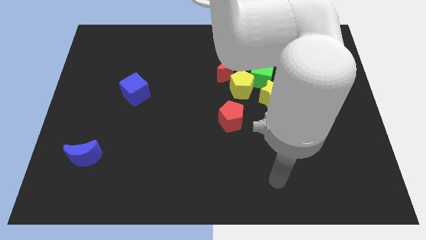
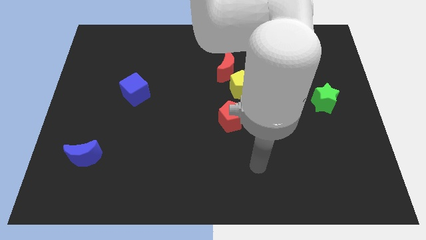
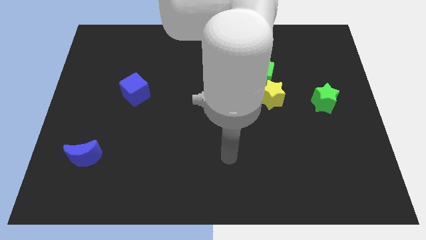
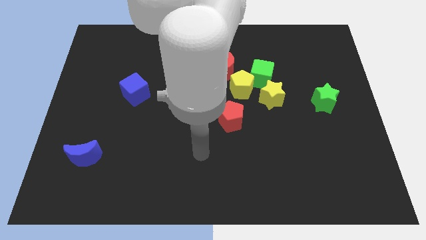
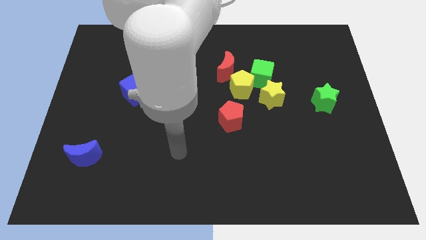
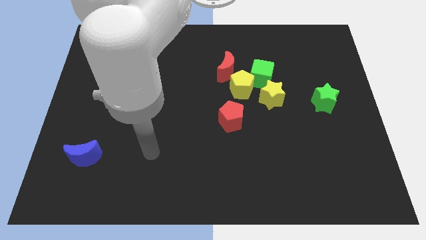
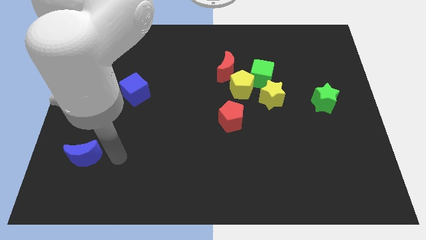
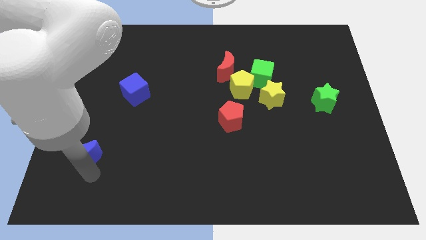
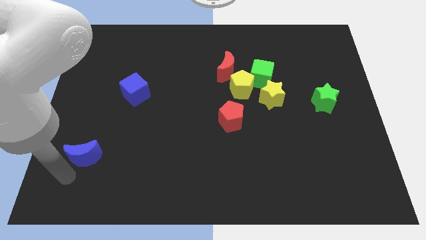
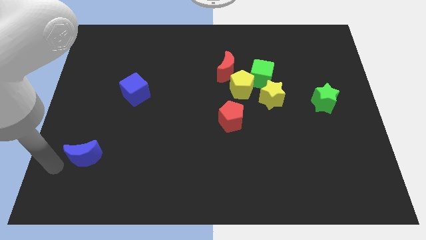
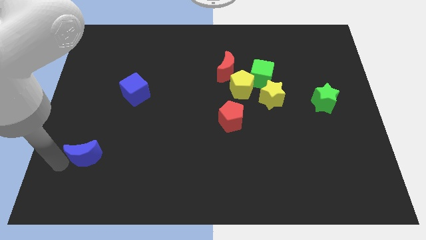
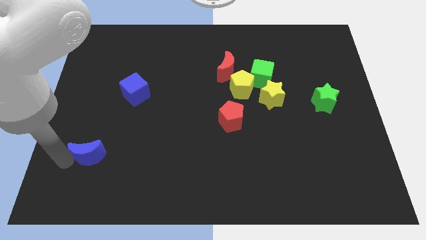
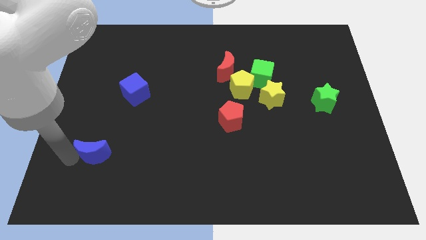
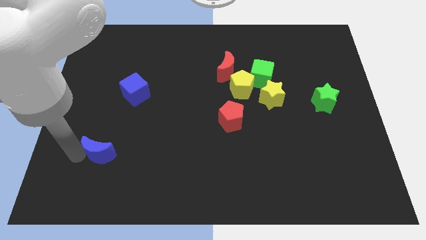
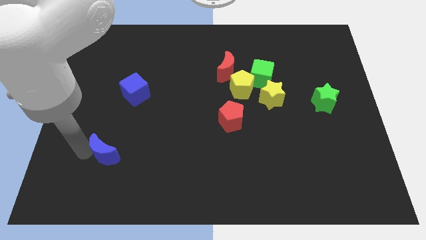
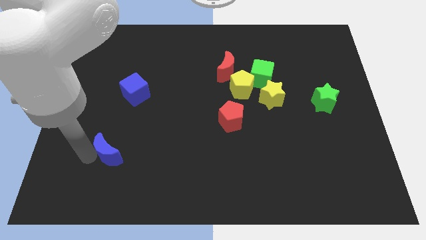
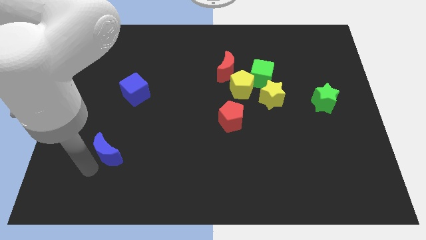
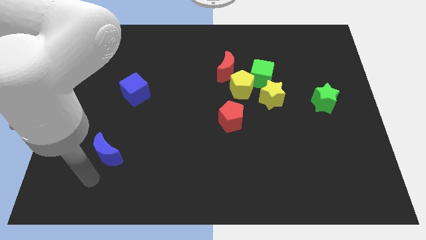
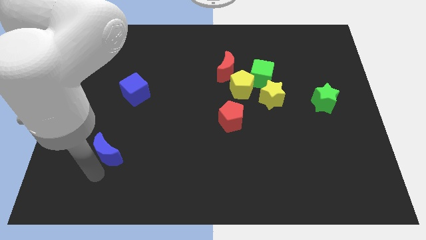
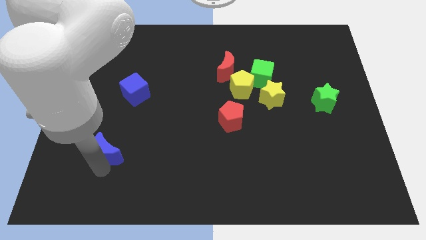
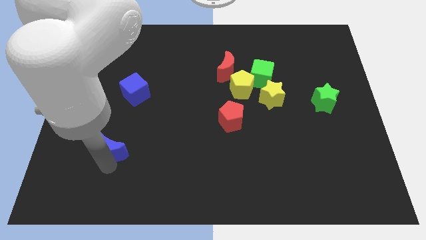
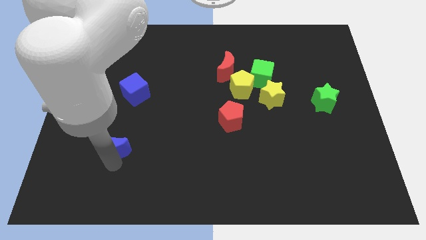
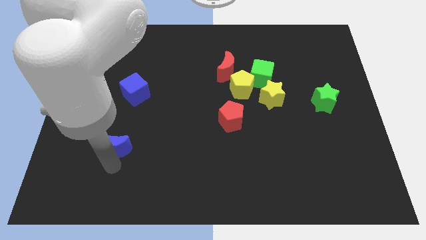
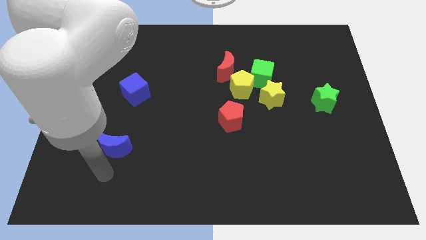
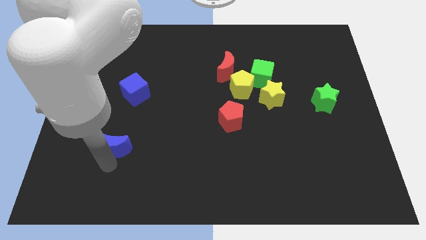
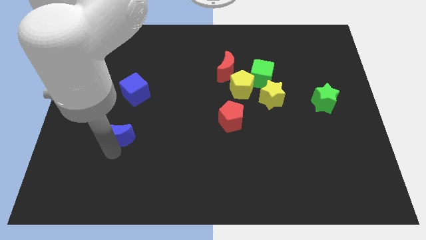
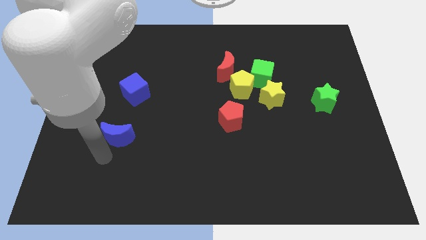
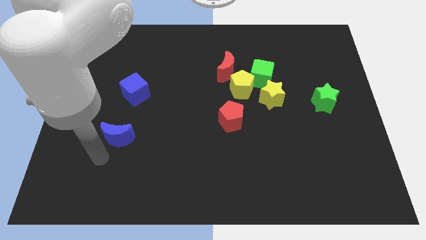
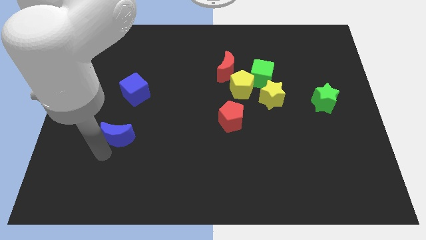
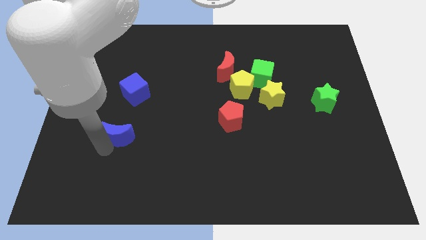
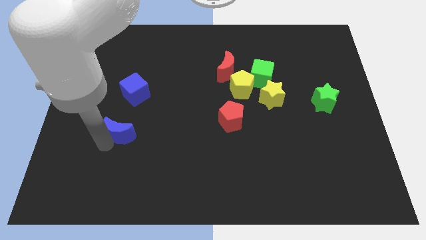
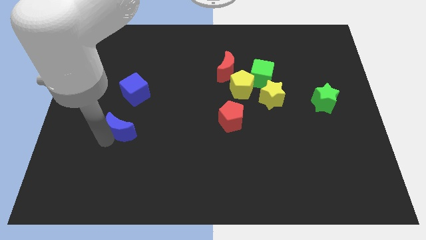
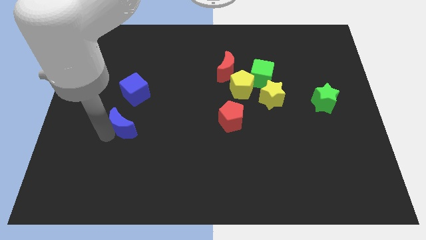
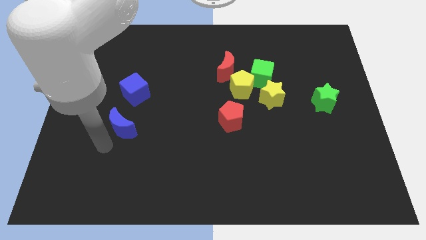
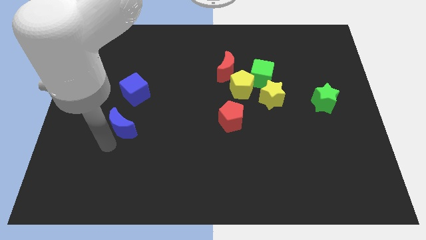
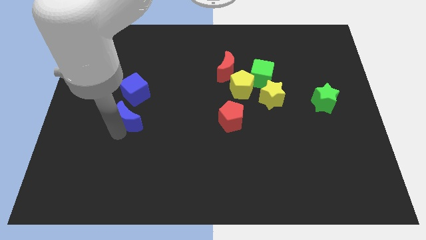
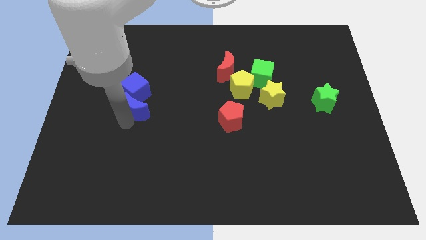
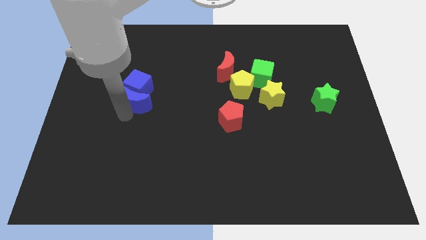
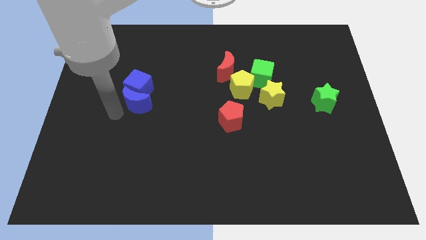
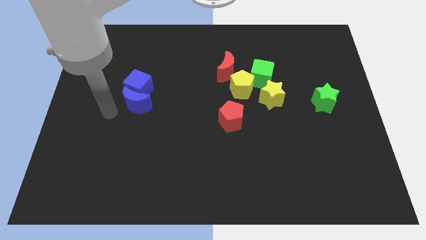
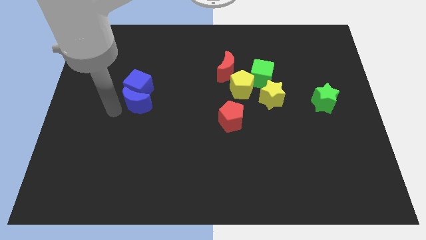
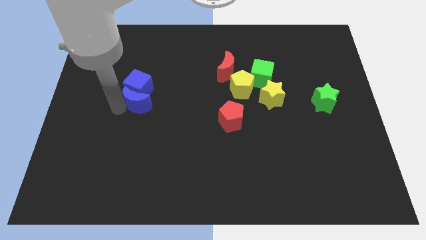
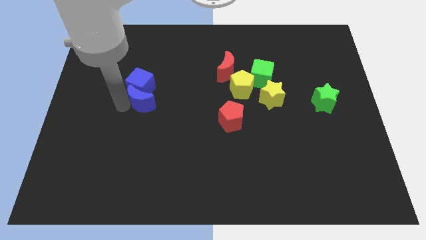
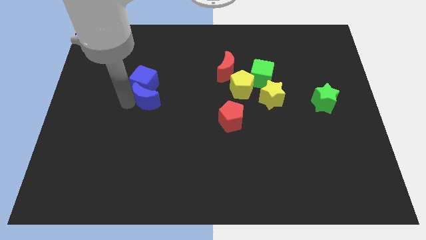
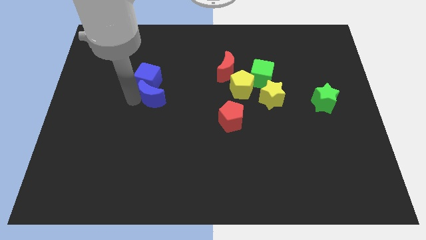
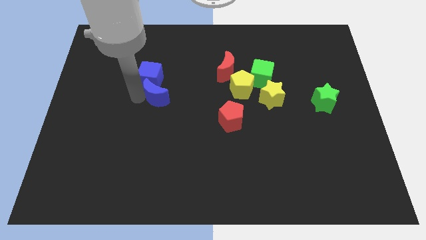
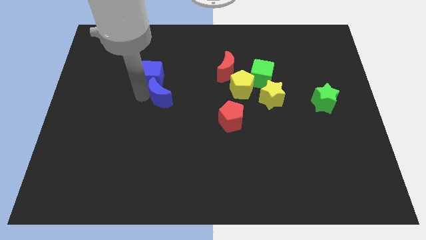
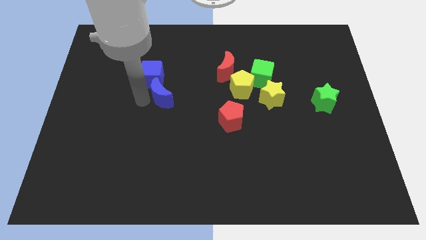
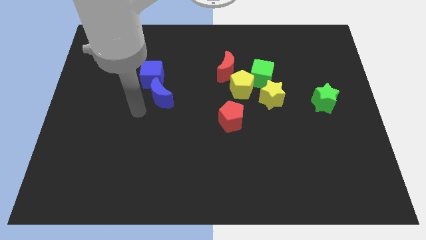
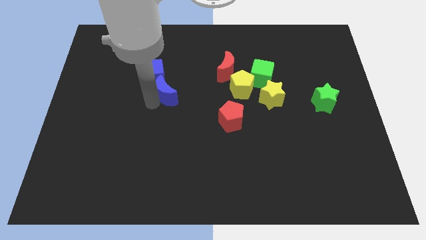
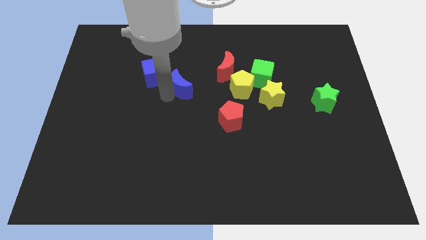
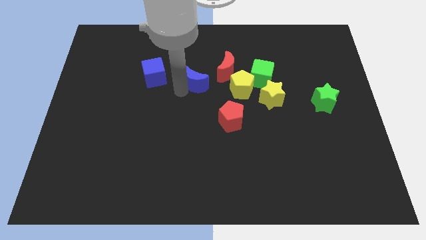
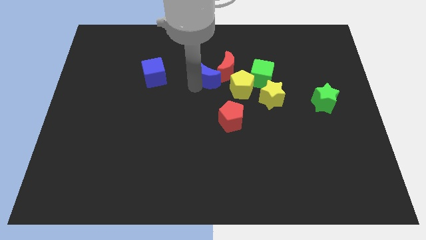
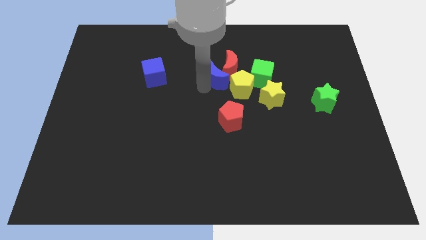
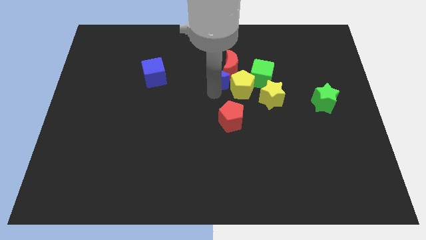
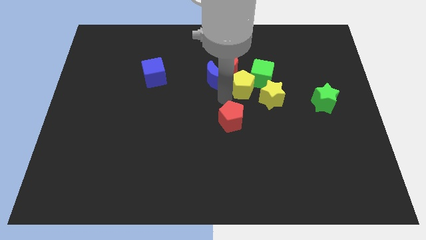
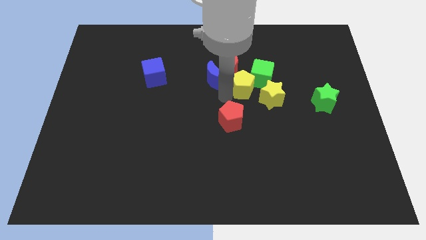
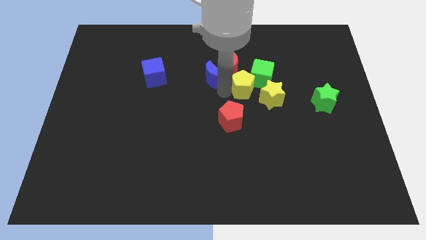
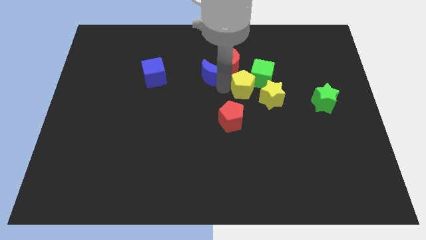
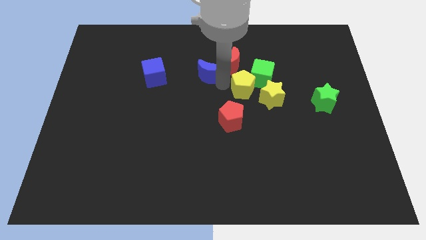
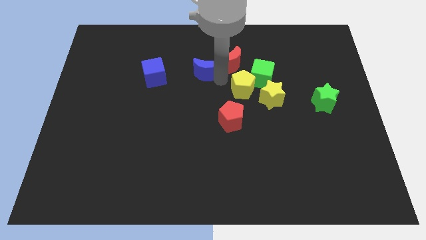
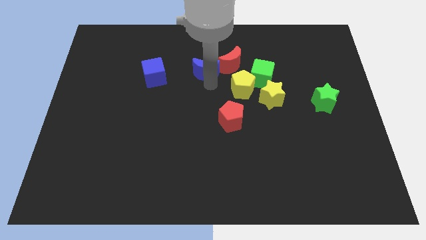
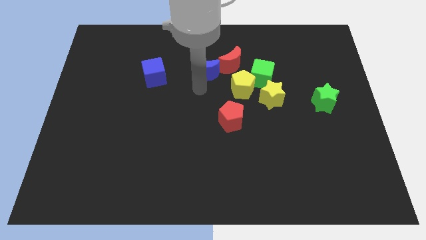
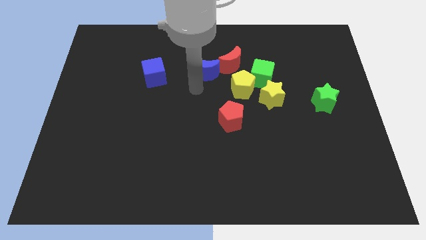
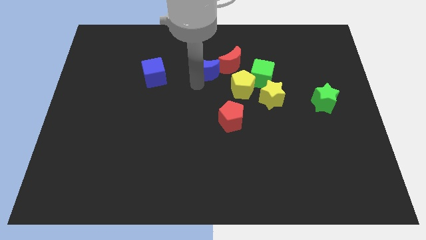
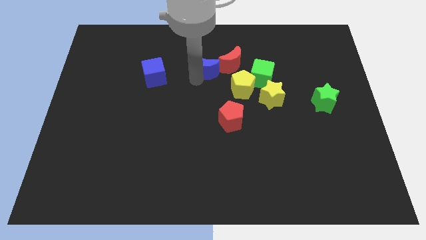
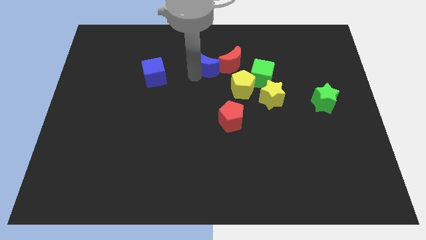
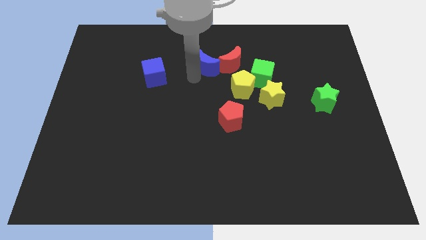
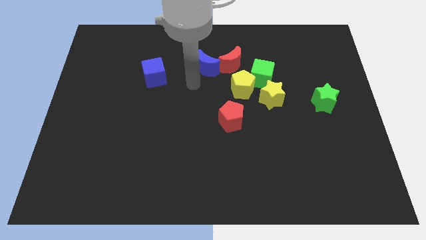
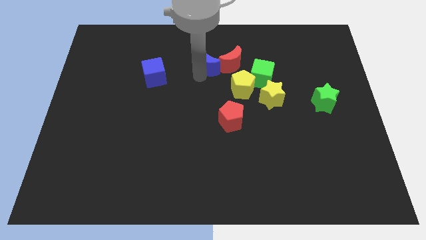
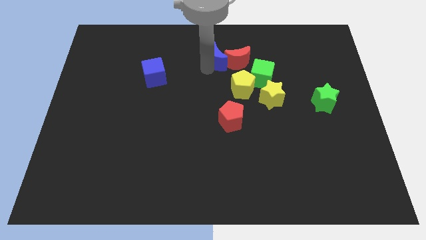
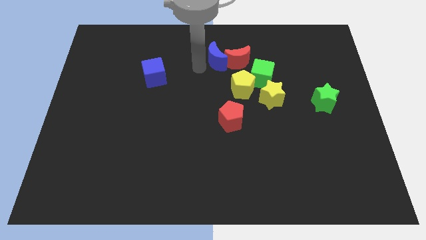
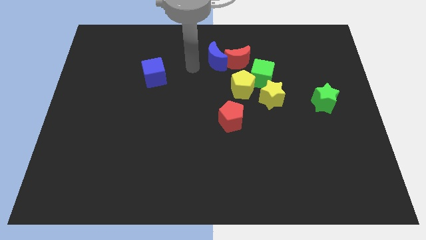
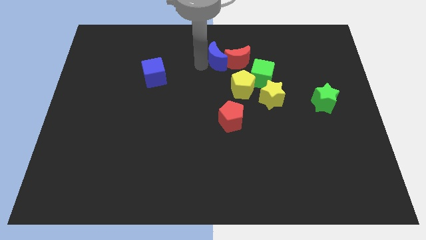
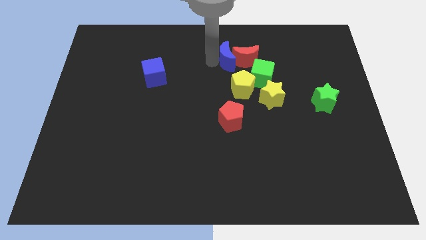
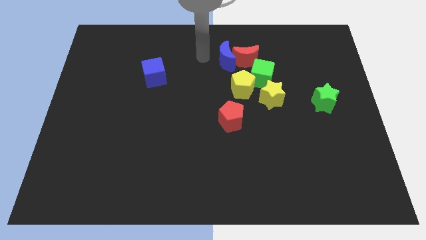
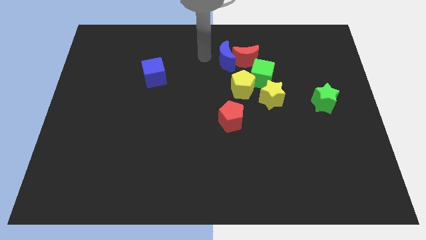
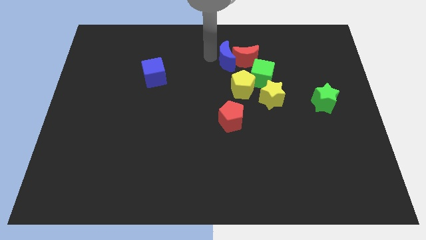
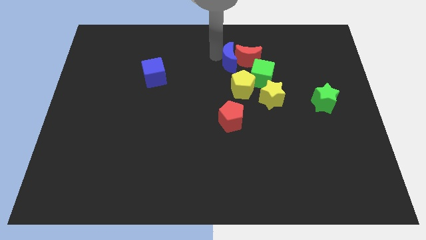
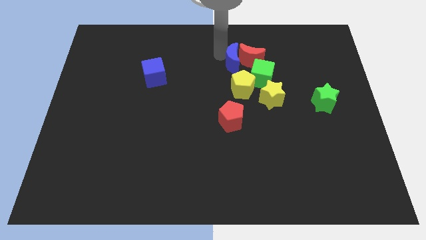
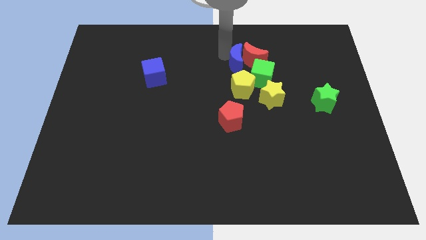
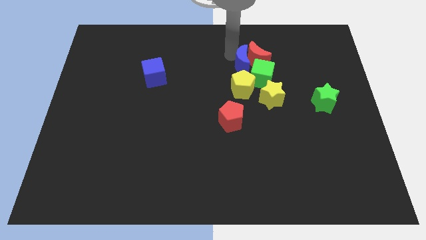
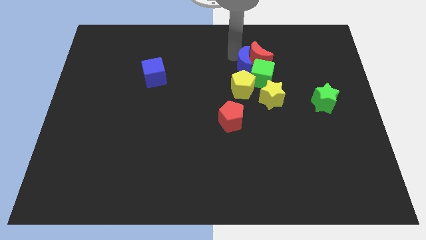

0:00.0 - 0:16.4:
slide the blue moon close to the green cube
